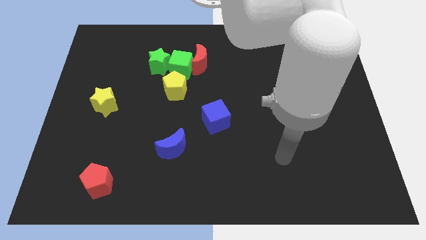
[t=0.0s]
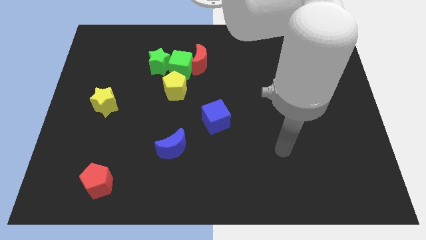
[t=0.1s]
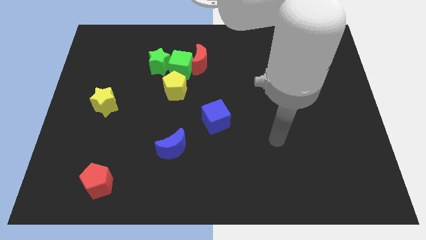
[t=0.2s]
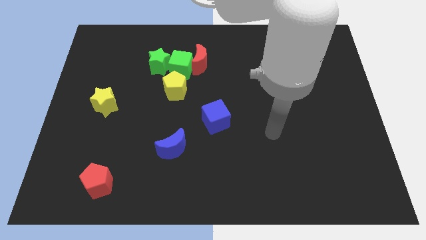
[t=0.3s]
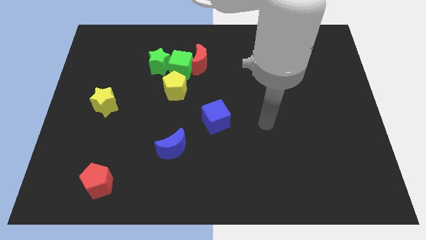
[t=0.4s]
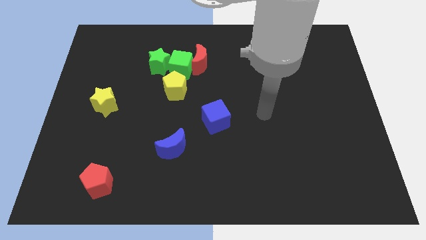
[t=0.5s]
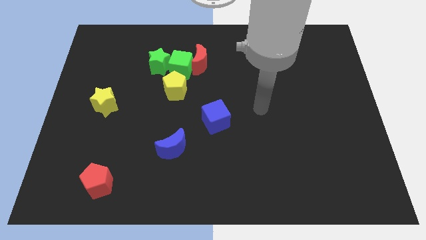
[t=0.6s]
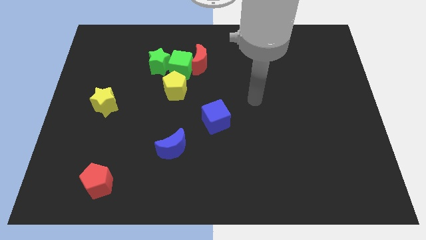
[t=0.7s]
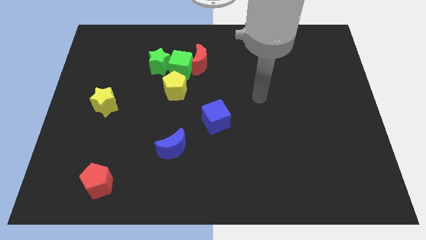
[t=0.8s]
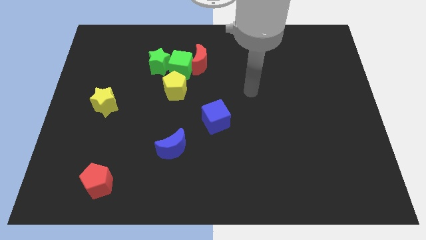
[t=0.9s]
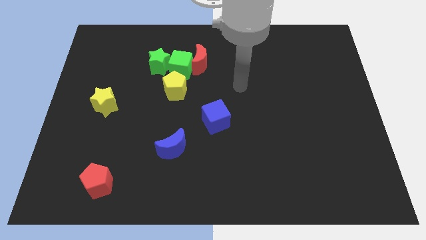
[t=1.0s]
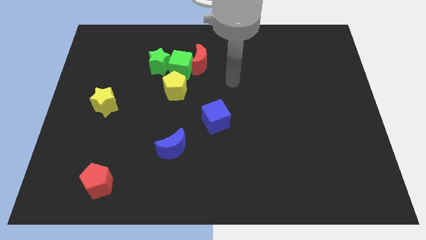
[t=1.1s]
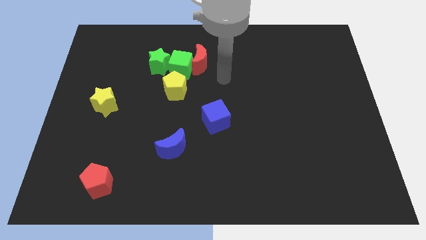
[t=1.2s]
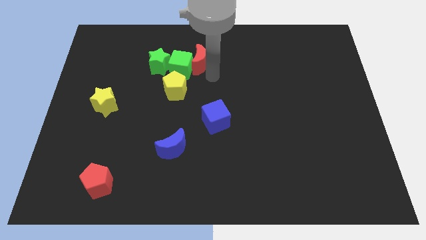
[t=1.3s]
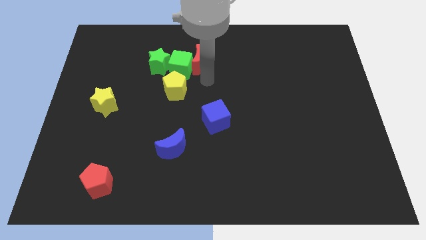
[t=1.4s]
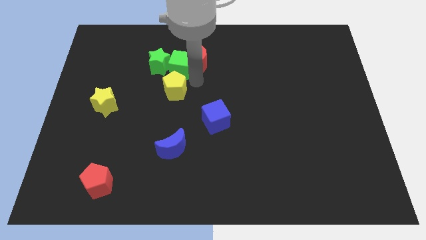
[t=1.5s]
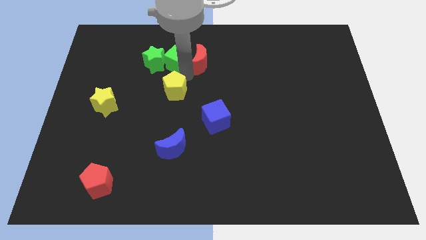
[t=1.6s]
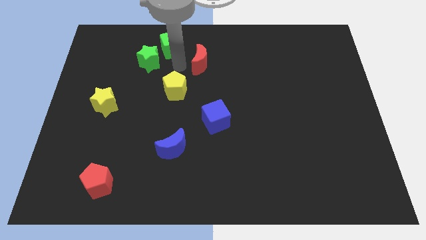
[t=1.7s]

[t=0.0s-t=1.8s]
separate the red moon from the green cube

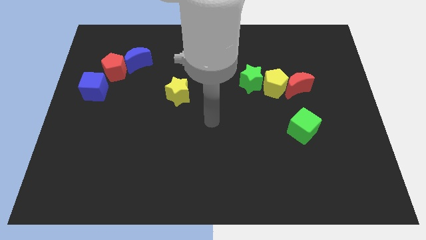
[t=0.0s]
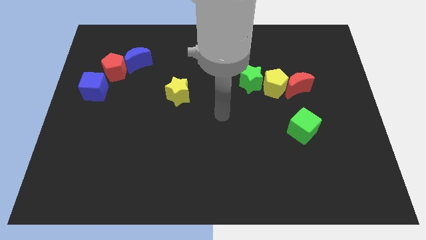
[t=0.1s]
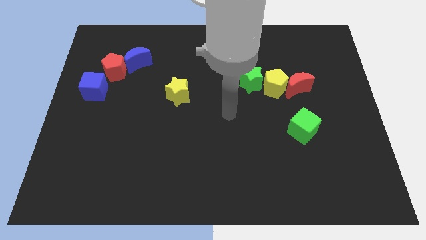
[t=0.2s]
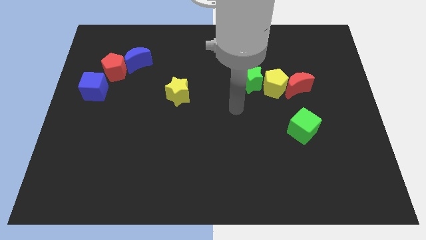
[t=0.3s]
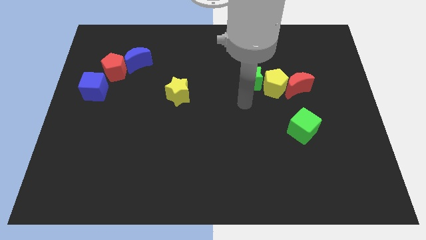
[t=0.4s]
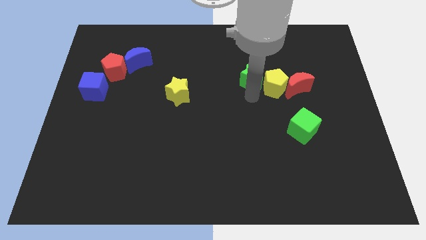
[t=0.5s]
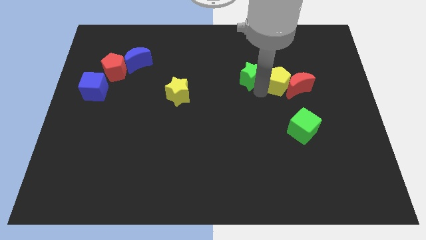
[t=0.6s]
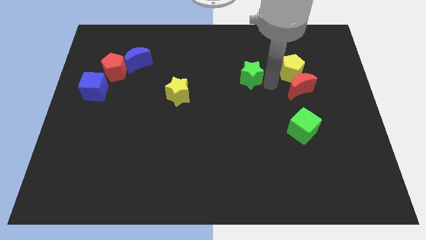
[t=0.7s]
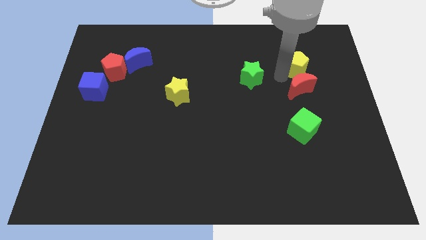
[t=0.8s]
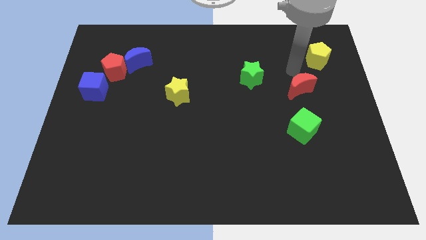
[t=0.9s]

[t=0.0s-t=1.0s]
separate the red moon from the yellow pentagon

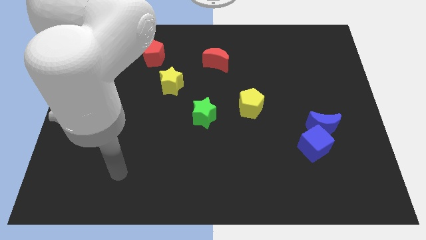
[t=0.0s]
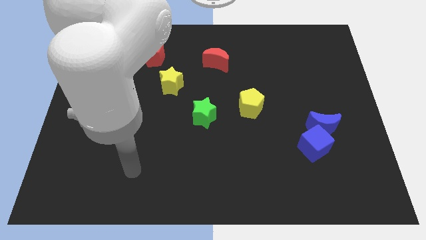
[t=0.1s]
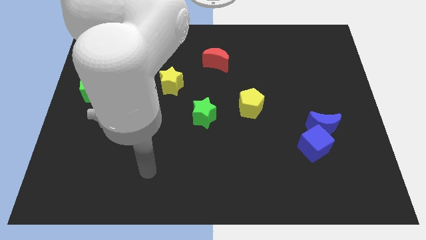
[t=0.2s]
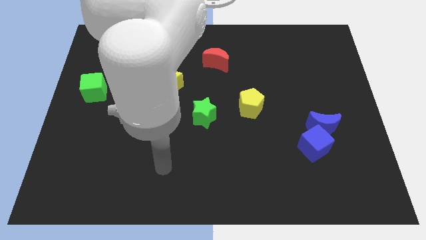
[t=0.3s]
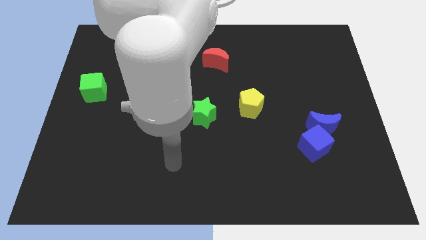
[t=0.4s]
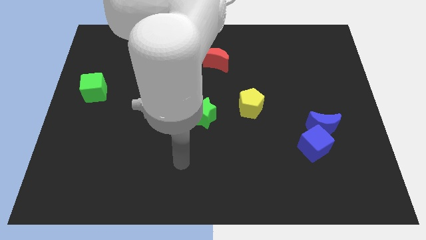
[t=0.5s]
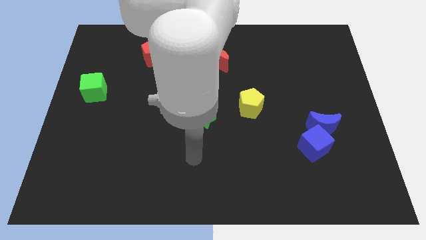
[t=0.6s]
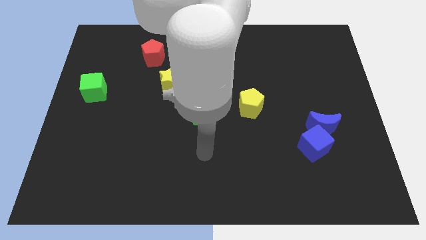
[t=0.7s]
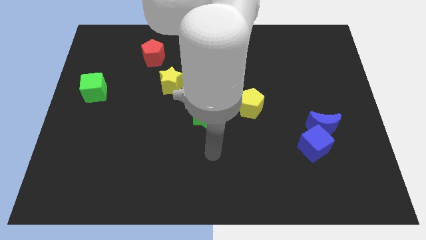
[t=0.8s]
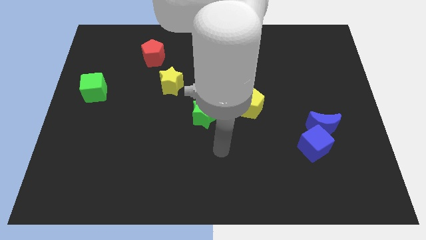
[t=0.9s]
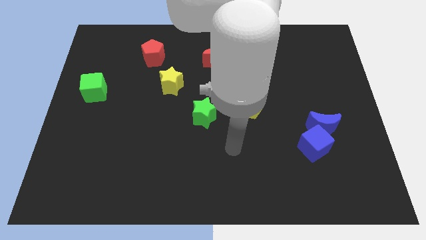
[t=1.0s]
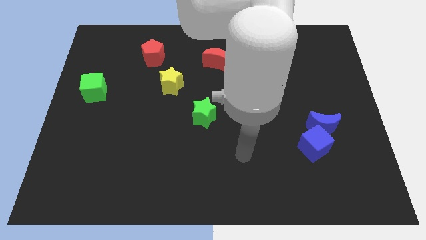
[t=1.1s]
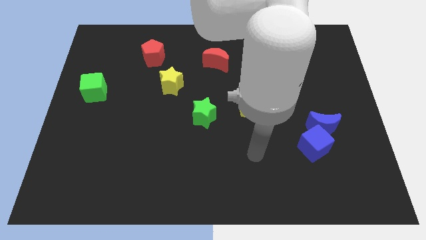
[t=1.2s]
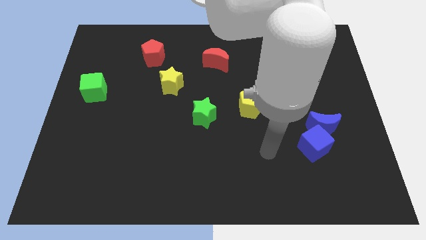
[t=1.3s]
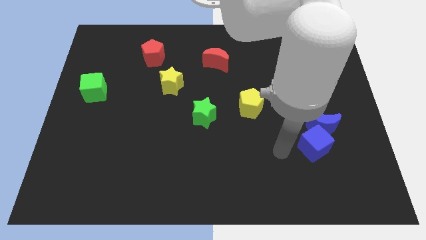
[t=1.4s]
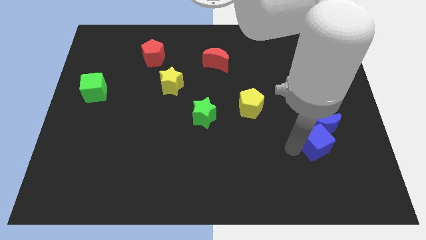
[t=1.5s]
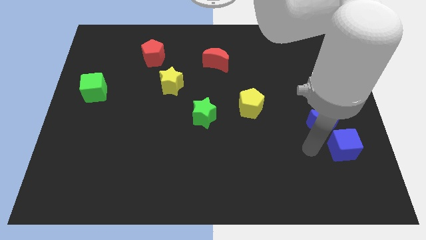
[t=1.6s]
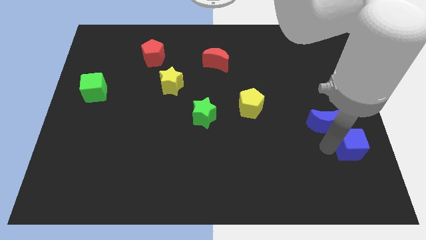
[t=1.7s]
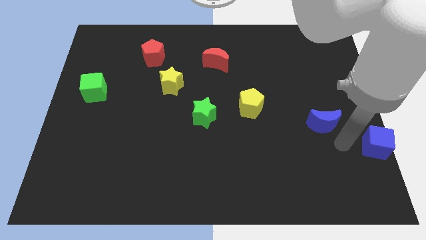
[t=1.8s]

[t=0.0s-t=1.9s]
separate the blue moon from the blue cube

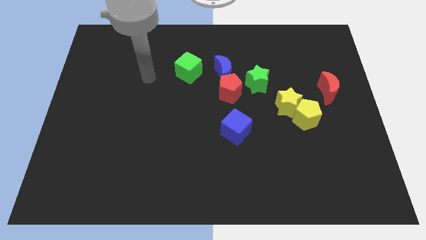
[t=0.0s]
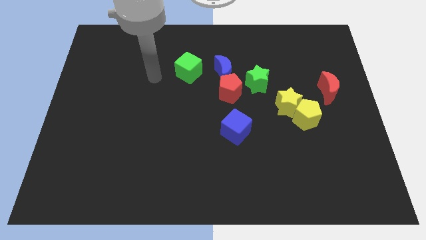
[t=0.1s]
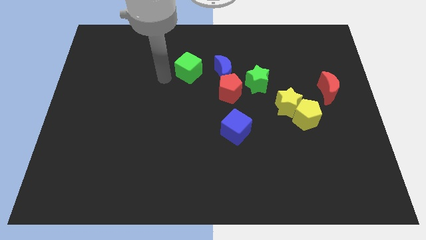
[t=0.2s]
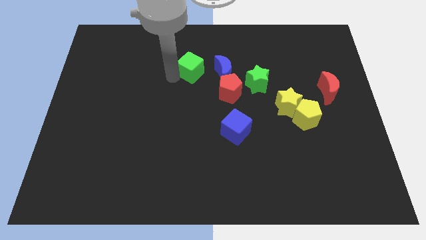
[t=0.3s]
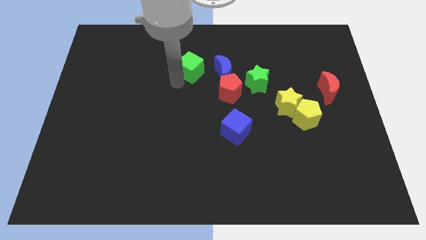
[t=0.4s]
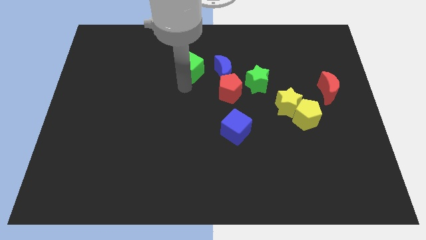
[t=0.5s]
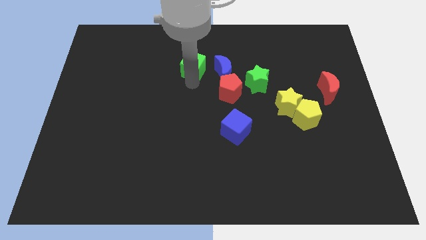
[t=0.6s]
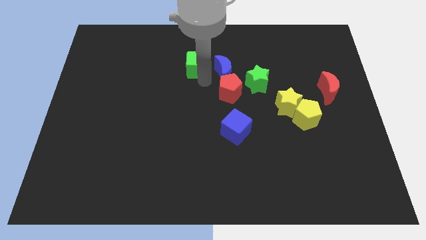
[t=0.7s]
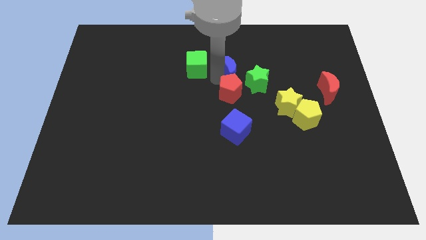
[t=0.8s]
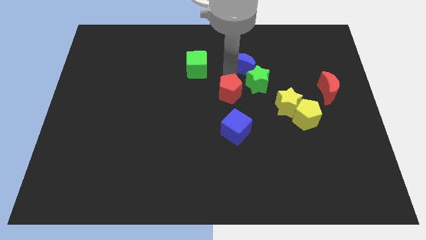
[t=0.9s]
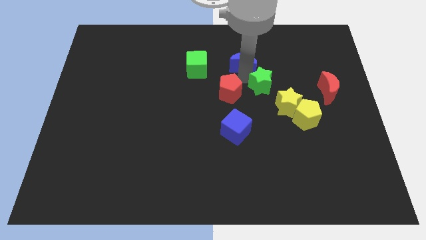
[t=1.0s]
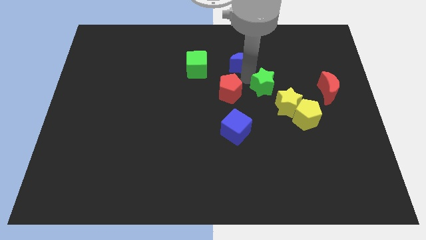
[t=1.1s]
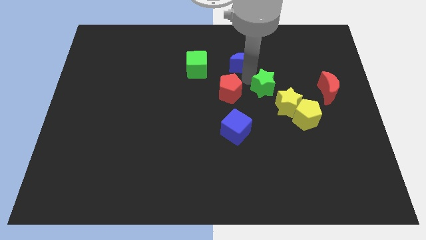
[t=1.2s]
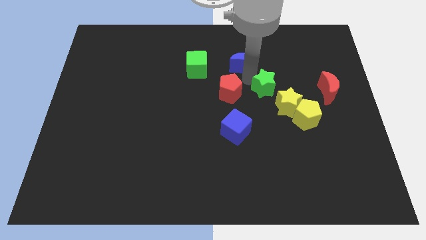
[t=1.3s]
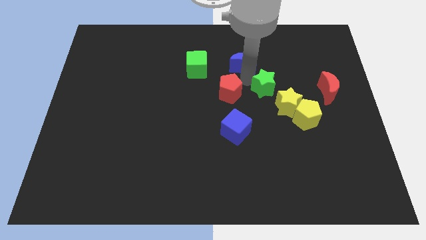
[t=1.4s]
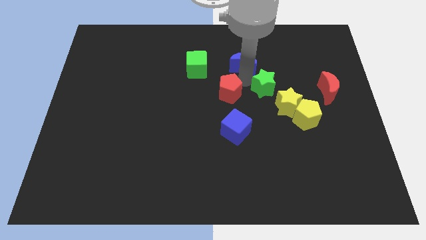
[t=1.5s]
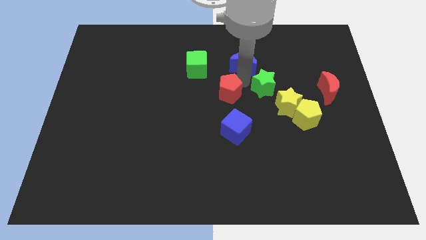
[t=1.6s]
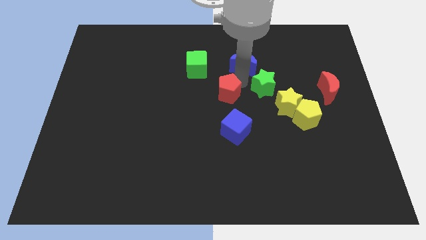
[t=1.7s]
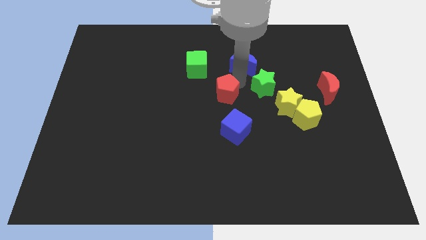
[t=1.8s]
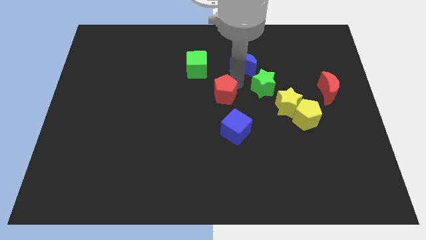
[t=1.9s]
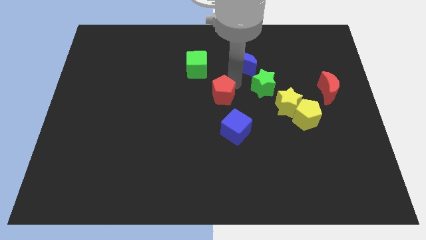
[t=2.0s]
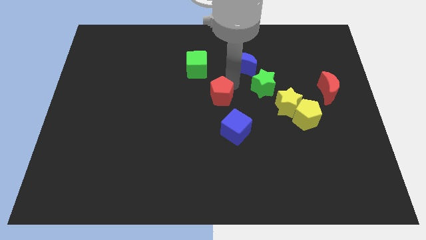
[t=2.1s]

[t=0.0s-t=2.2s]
move the red pentagon away from the blue moon and green star

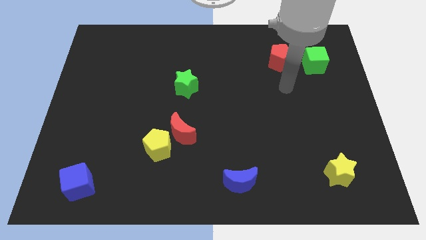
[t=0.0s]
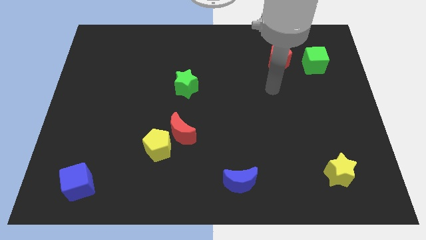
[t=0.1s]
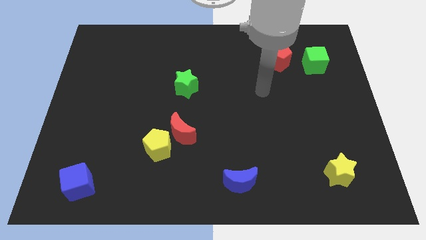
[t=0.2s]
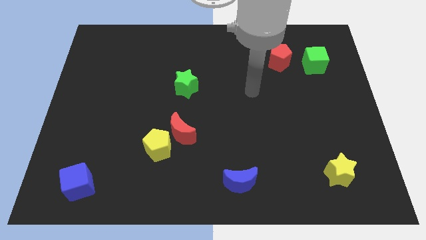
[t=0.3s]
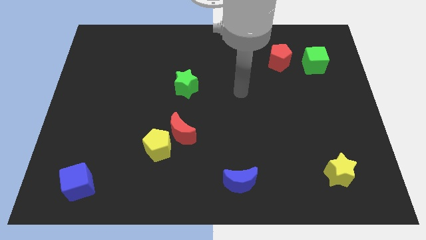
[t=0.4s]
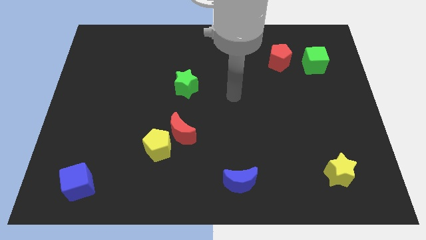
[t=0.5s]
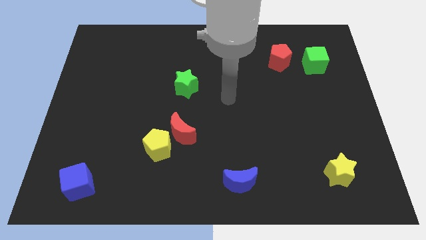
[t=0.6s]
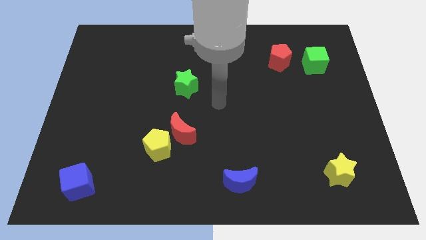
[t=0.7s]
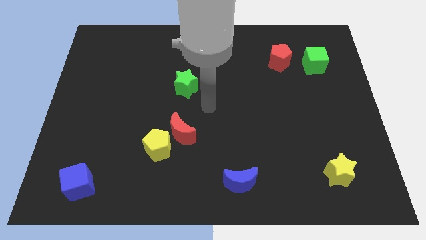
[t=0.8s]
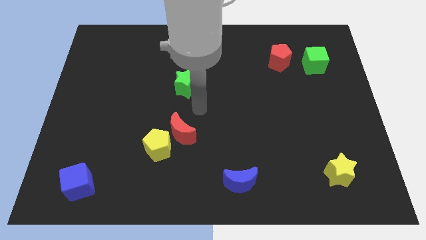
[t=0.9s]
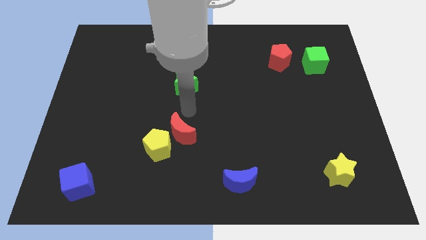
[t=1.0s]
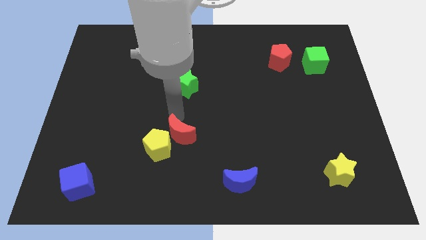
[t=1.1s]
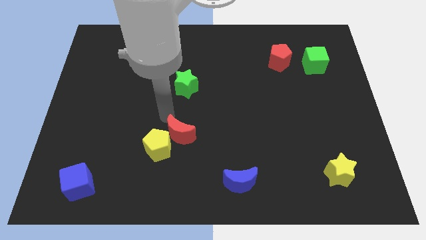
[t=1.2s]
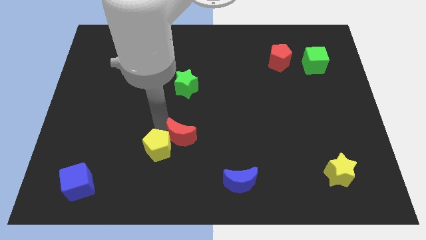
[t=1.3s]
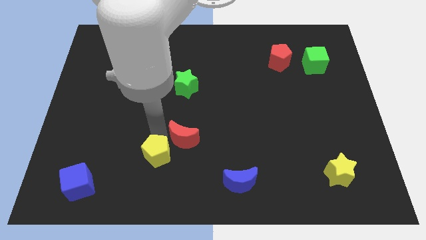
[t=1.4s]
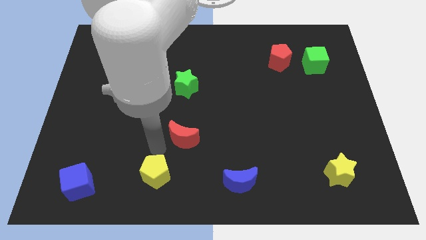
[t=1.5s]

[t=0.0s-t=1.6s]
move the red moon away from the yellow pentagon

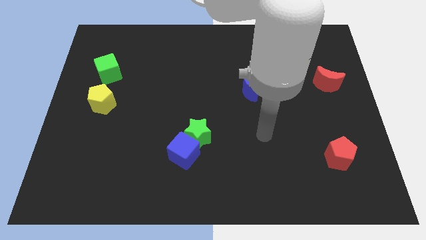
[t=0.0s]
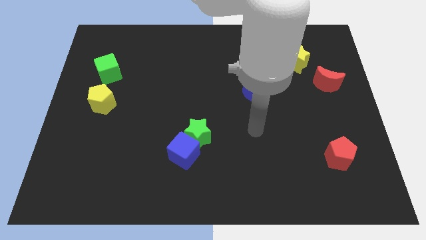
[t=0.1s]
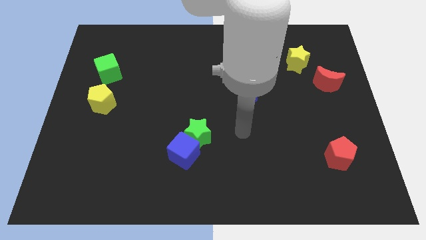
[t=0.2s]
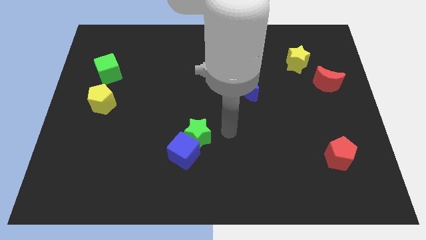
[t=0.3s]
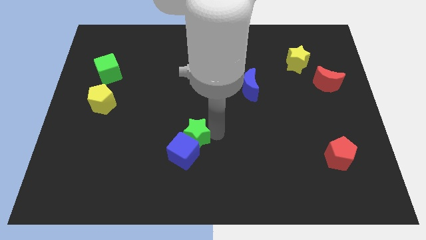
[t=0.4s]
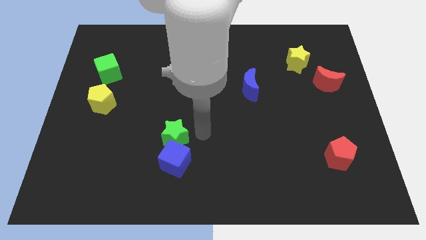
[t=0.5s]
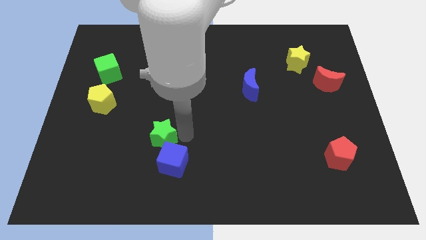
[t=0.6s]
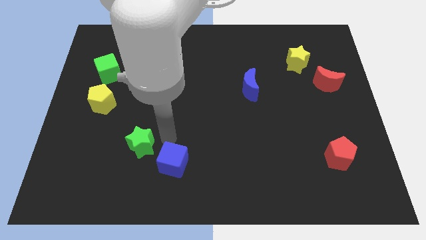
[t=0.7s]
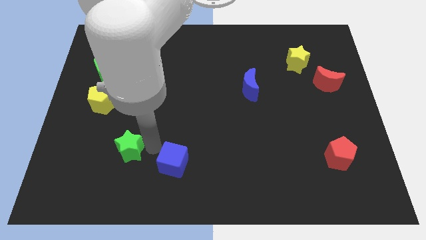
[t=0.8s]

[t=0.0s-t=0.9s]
separate the blue cube from the green star
